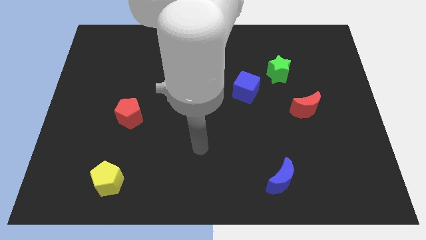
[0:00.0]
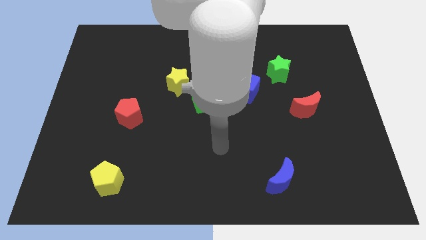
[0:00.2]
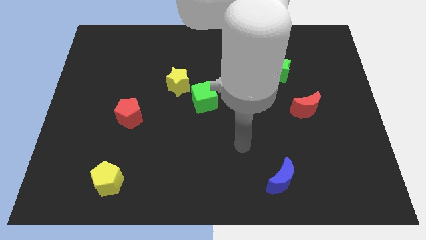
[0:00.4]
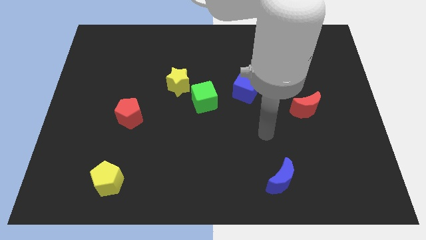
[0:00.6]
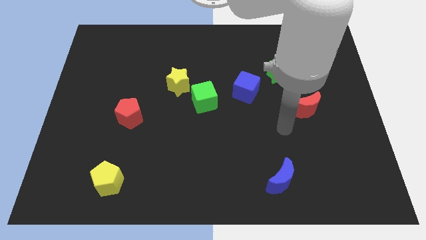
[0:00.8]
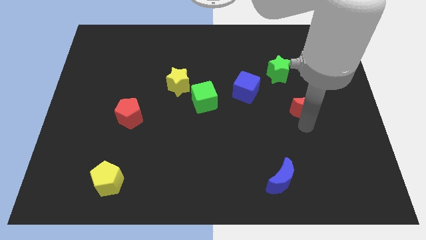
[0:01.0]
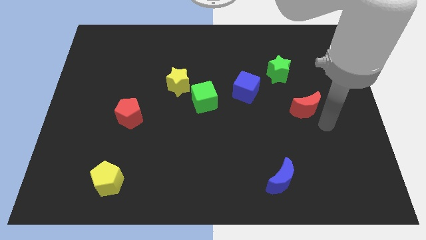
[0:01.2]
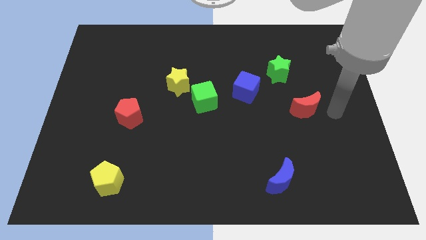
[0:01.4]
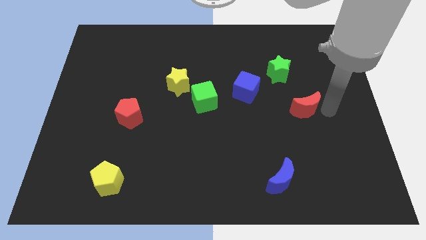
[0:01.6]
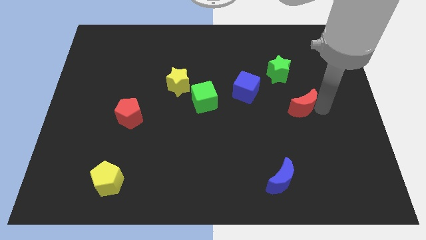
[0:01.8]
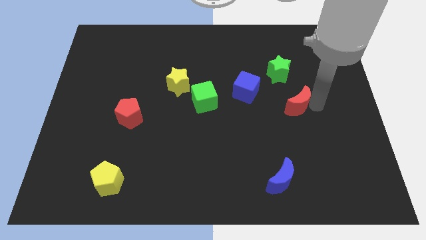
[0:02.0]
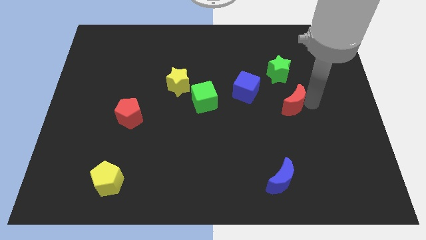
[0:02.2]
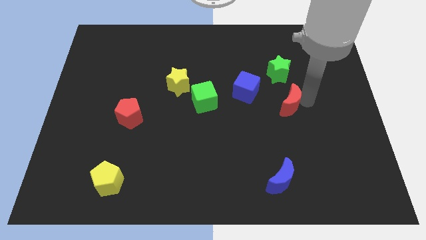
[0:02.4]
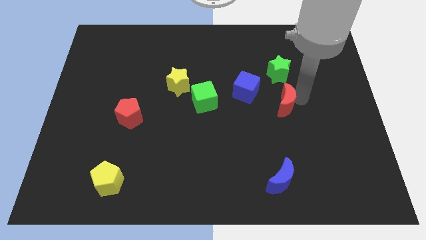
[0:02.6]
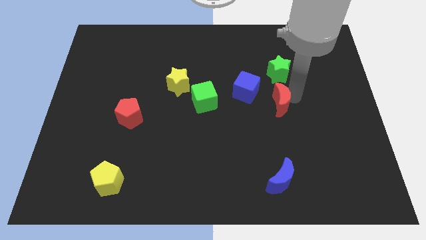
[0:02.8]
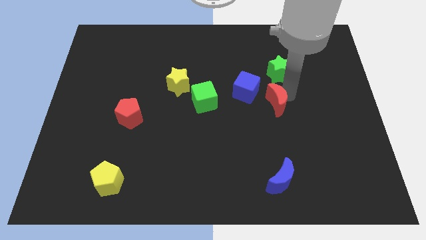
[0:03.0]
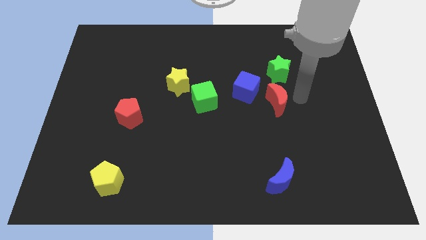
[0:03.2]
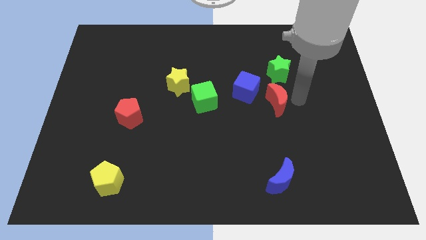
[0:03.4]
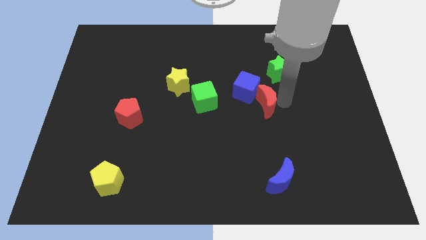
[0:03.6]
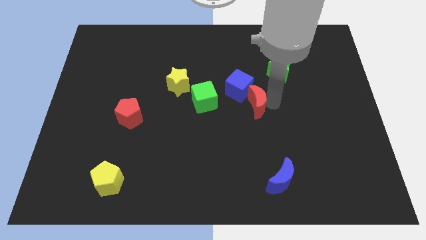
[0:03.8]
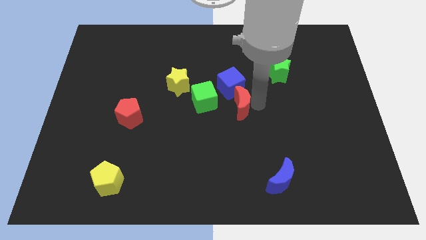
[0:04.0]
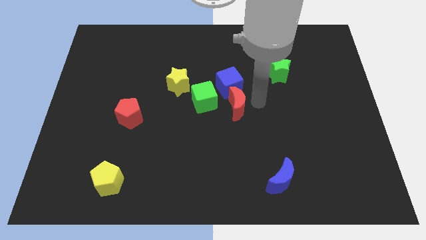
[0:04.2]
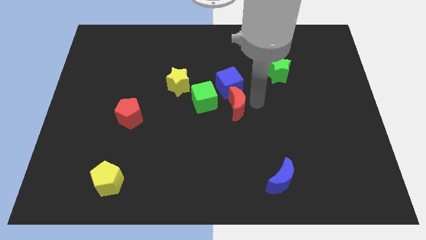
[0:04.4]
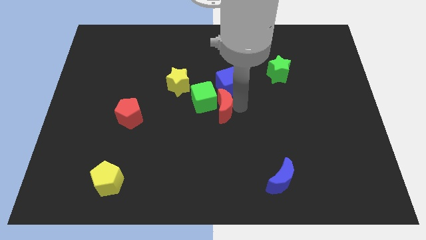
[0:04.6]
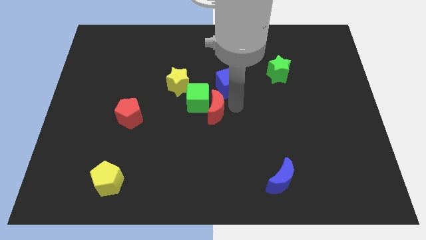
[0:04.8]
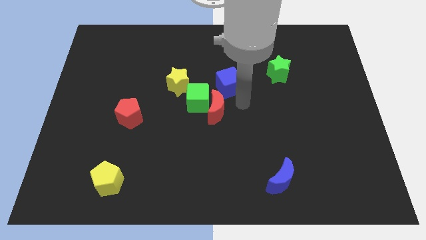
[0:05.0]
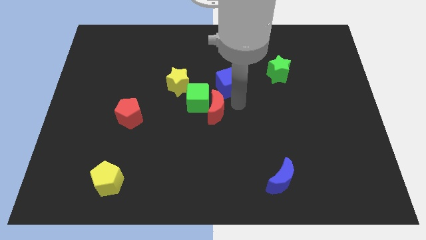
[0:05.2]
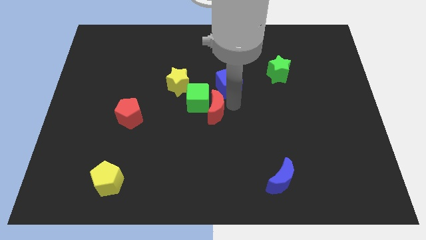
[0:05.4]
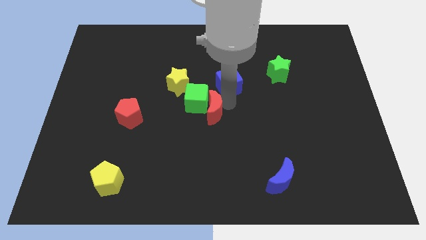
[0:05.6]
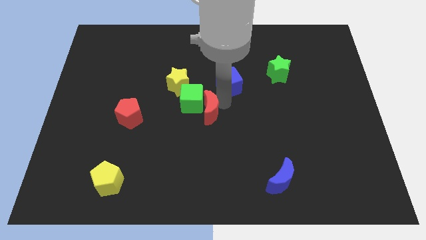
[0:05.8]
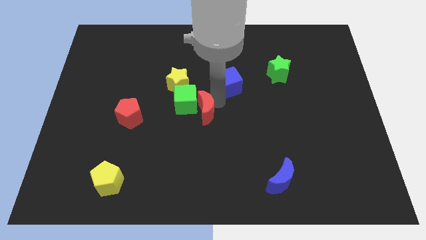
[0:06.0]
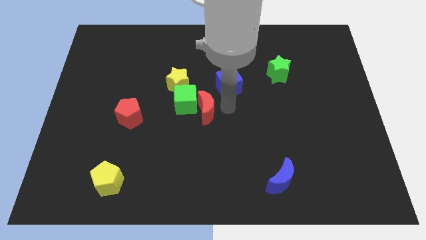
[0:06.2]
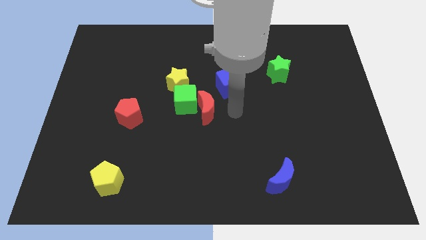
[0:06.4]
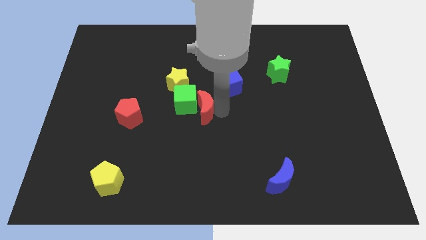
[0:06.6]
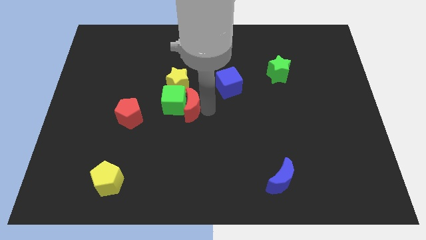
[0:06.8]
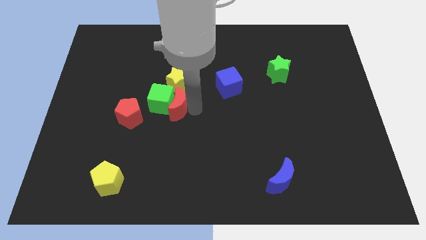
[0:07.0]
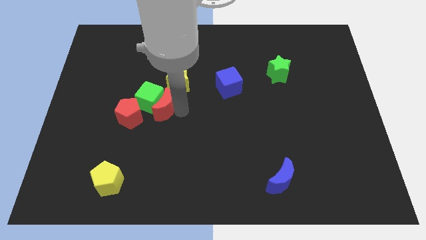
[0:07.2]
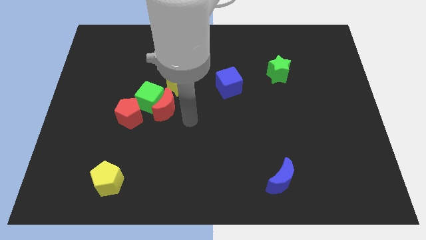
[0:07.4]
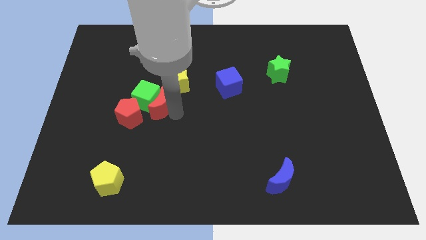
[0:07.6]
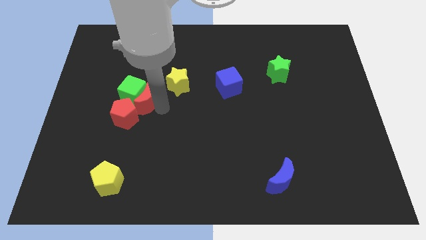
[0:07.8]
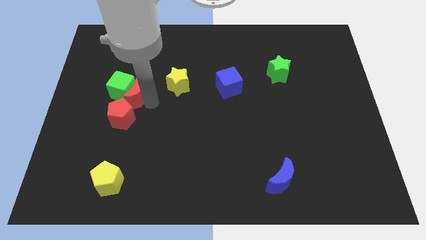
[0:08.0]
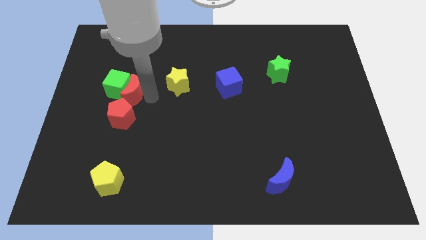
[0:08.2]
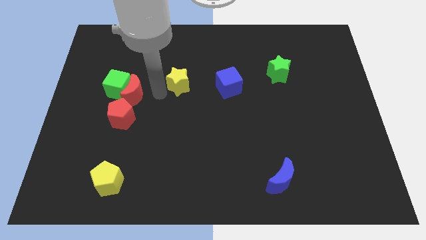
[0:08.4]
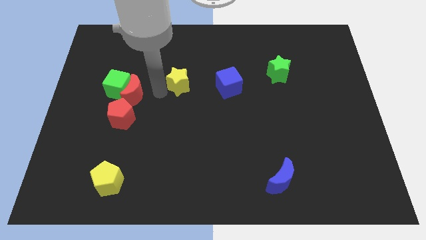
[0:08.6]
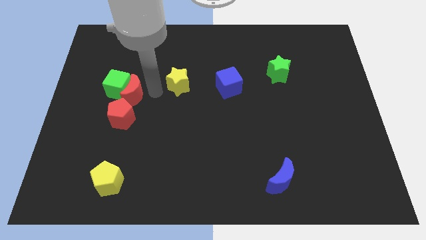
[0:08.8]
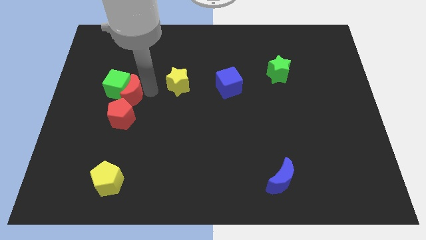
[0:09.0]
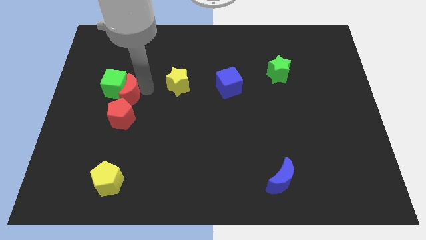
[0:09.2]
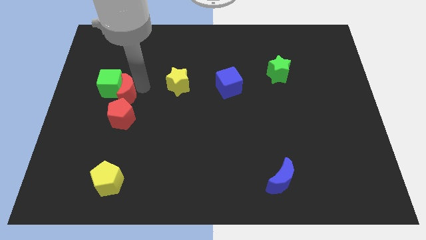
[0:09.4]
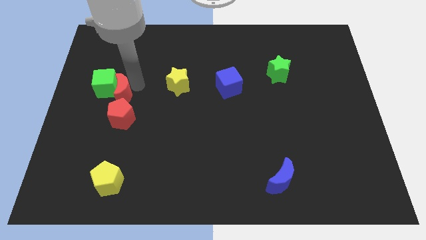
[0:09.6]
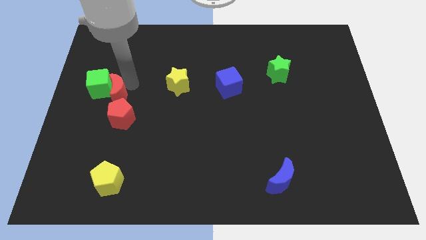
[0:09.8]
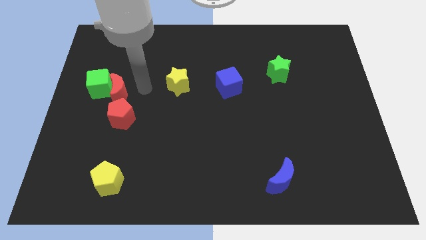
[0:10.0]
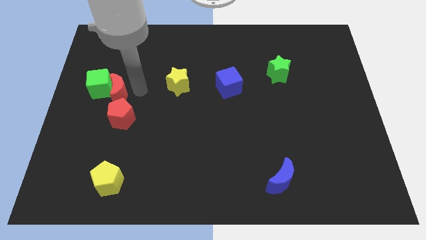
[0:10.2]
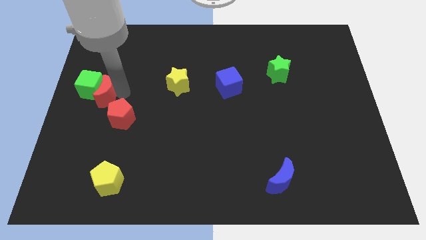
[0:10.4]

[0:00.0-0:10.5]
put the red moon to the left side

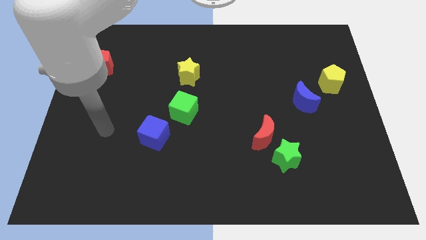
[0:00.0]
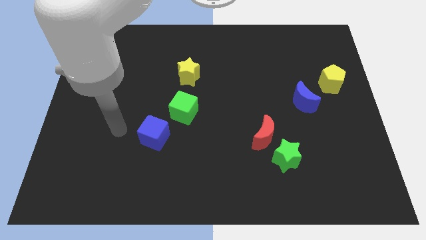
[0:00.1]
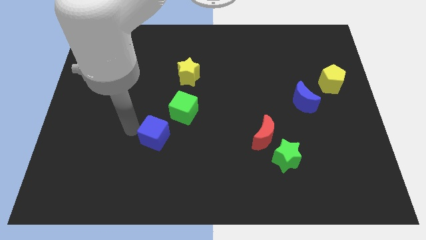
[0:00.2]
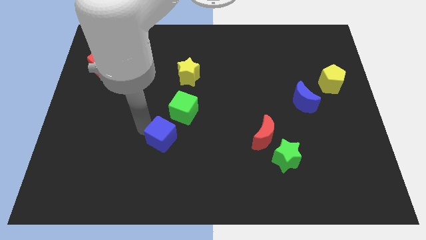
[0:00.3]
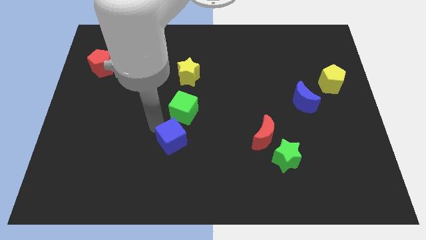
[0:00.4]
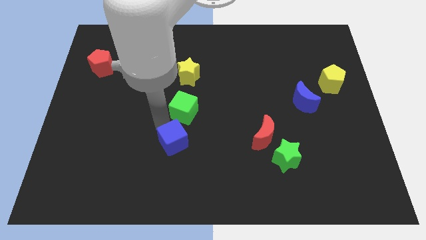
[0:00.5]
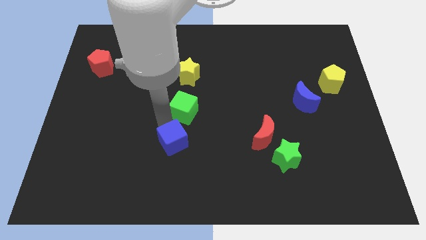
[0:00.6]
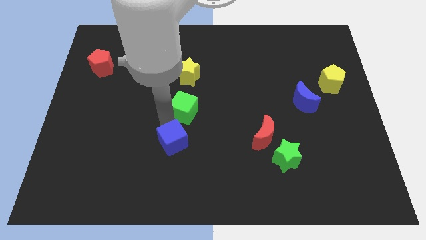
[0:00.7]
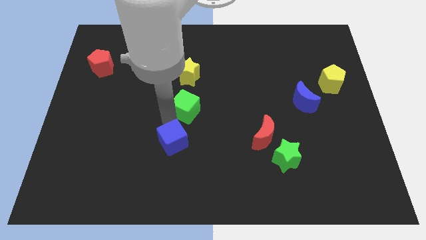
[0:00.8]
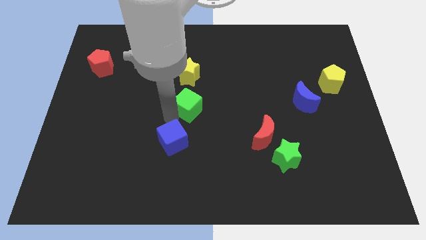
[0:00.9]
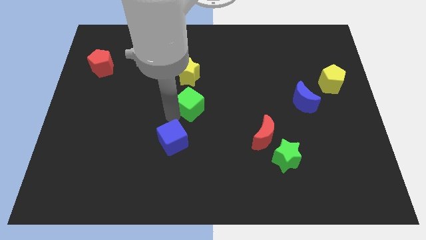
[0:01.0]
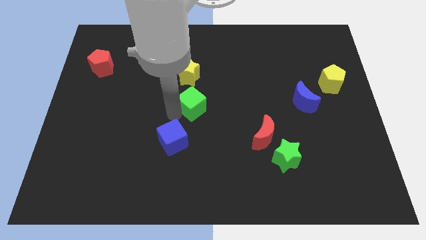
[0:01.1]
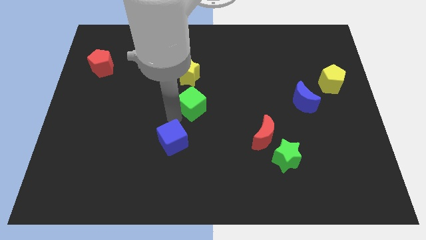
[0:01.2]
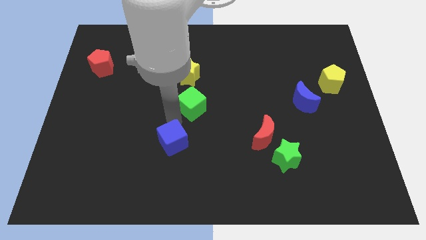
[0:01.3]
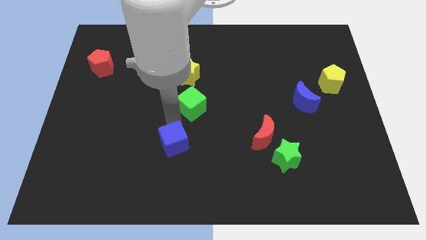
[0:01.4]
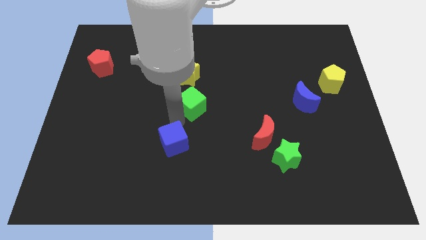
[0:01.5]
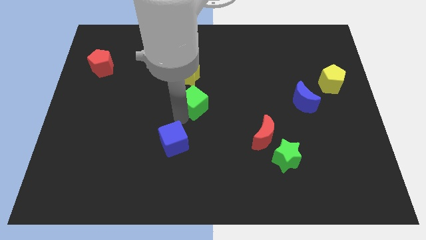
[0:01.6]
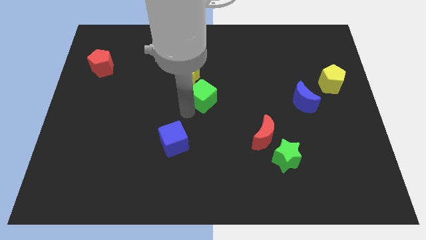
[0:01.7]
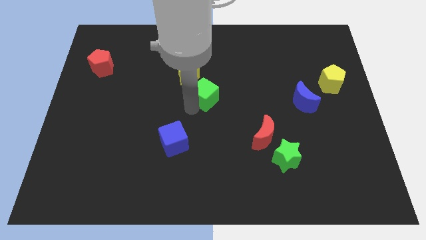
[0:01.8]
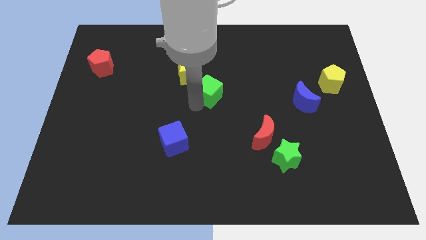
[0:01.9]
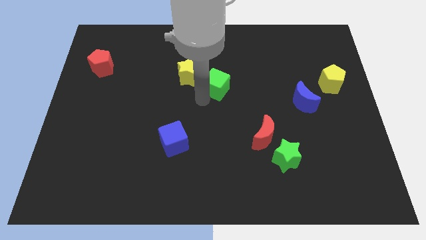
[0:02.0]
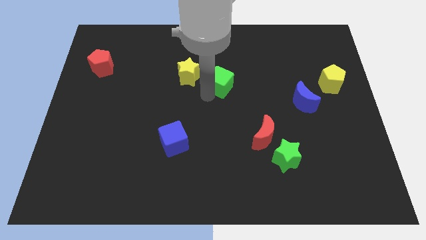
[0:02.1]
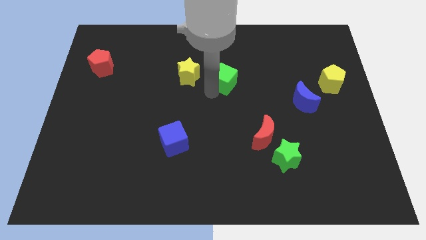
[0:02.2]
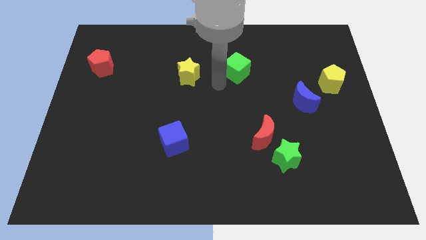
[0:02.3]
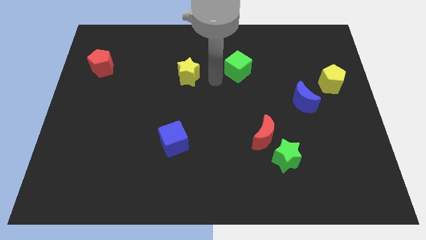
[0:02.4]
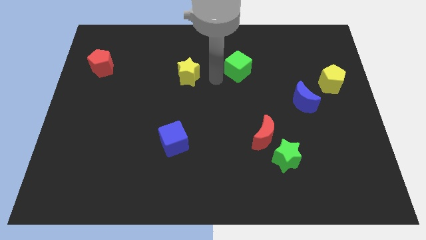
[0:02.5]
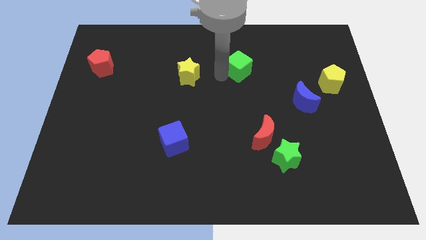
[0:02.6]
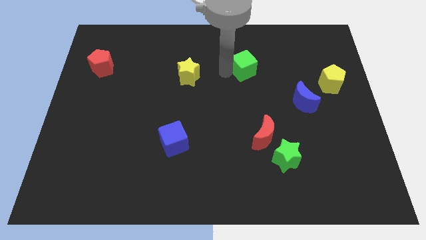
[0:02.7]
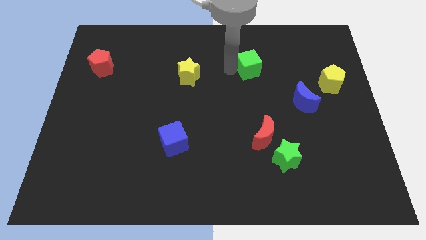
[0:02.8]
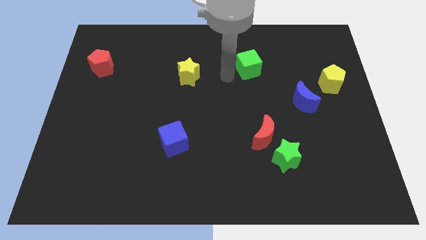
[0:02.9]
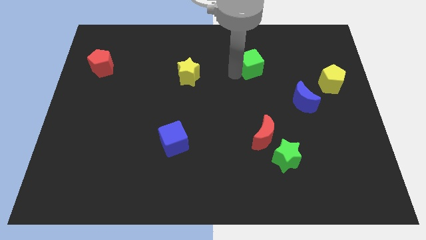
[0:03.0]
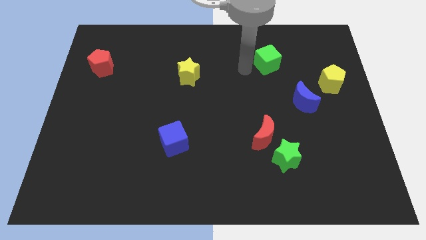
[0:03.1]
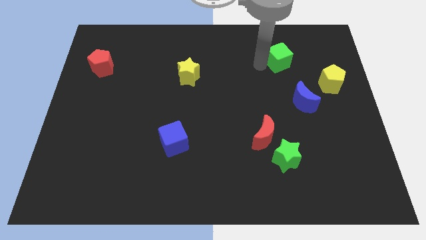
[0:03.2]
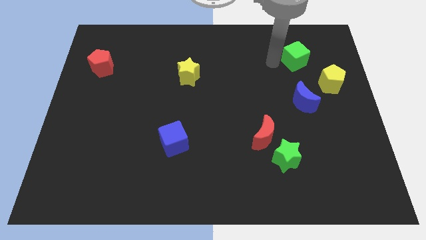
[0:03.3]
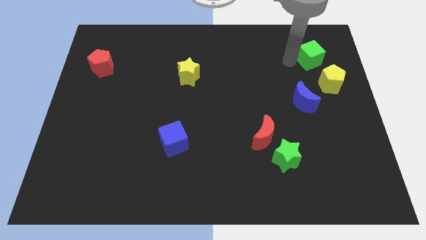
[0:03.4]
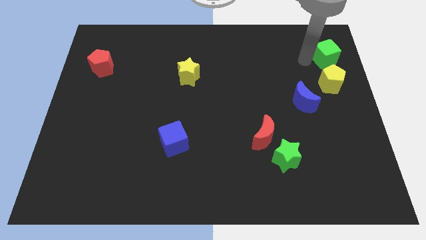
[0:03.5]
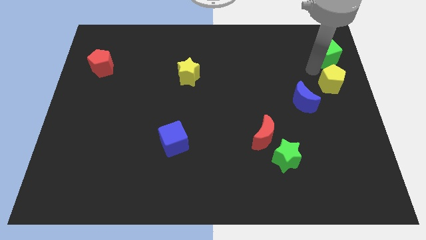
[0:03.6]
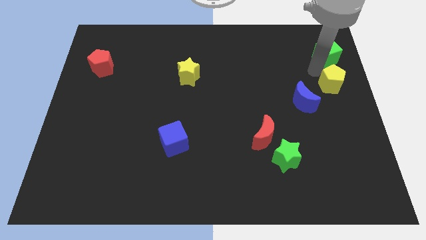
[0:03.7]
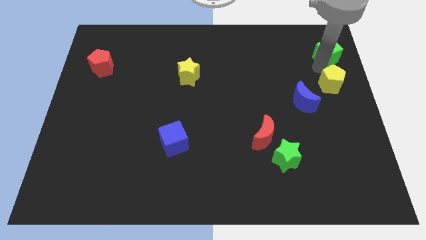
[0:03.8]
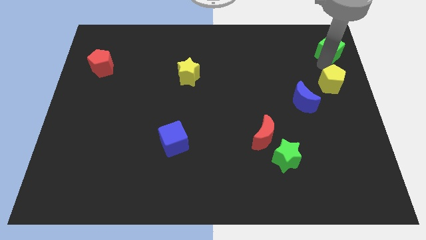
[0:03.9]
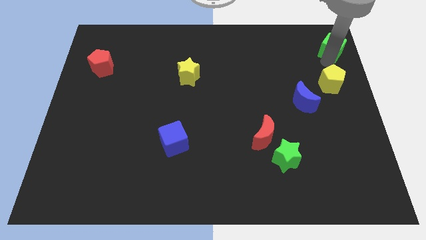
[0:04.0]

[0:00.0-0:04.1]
push the green cube to the upper right corner
